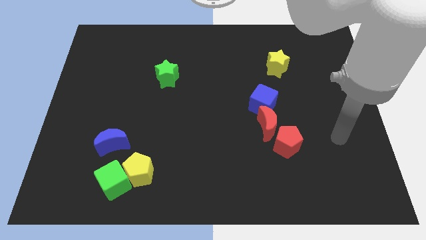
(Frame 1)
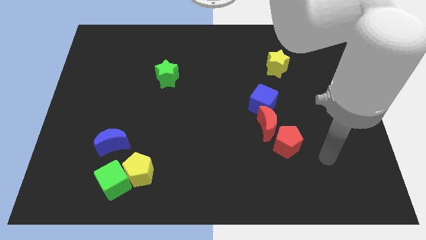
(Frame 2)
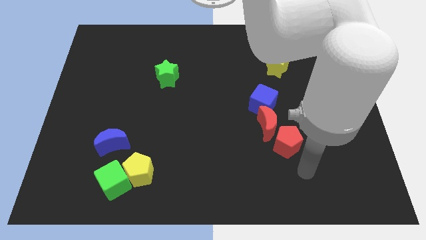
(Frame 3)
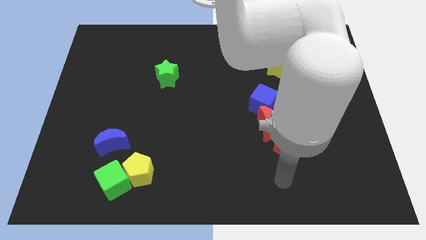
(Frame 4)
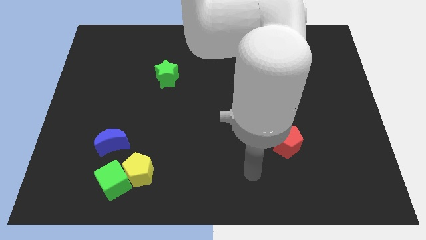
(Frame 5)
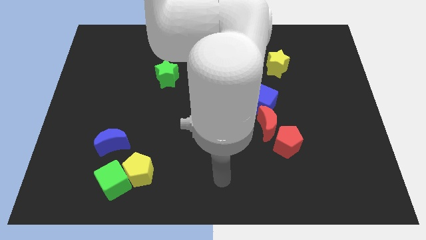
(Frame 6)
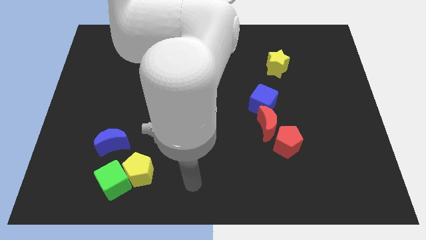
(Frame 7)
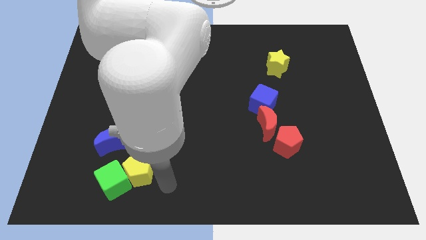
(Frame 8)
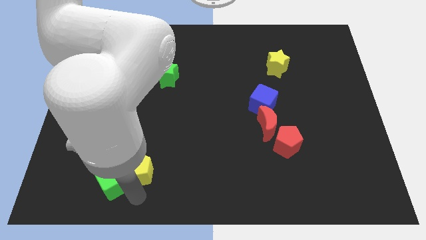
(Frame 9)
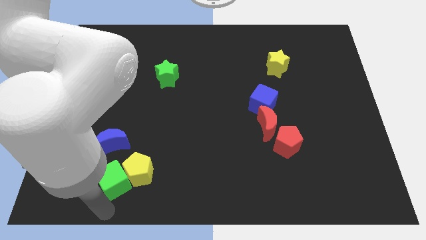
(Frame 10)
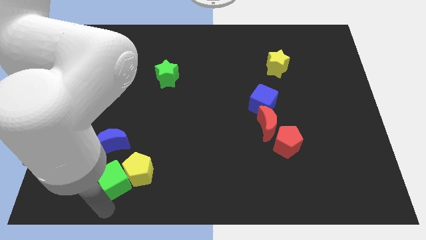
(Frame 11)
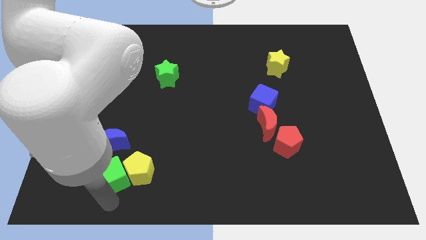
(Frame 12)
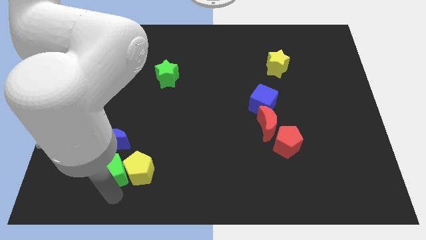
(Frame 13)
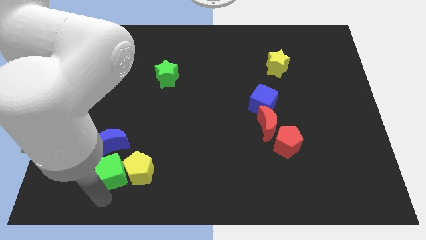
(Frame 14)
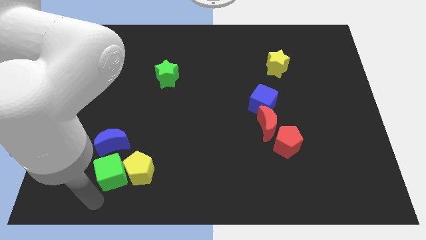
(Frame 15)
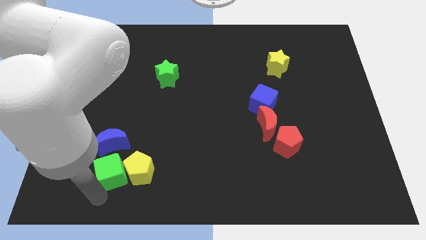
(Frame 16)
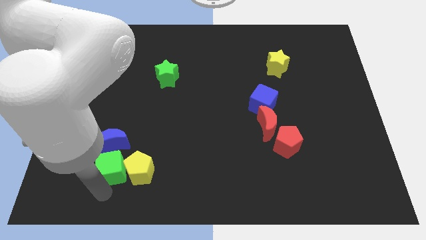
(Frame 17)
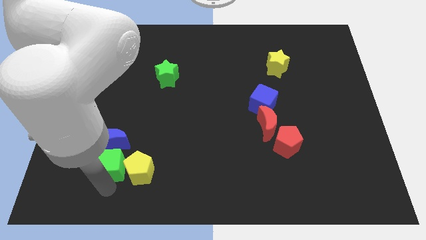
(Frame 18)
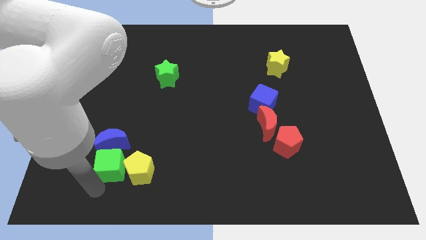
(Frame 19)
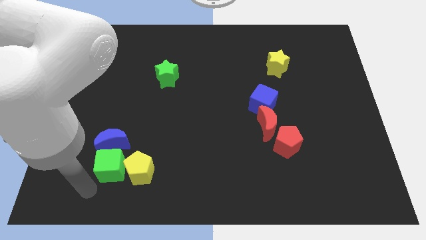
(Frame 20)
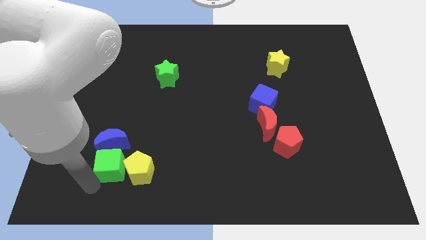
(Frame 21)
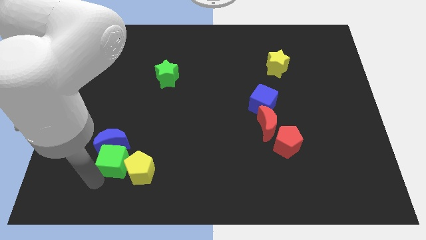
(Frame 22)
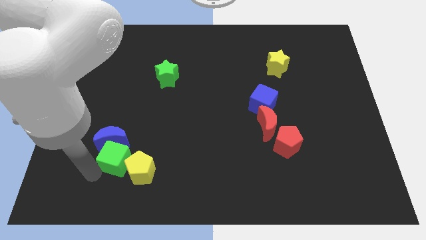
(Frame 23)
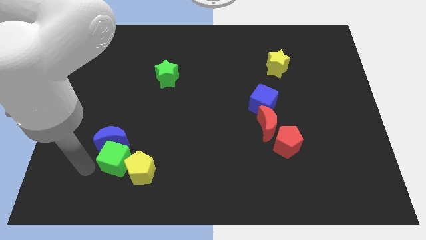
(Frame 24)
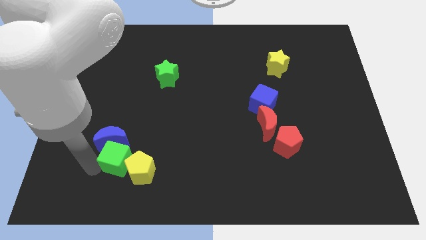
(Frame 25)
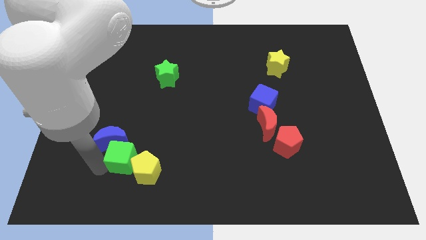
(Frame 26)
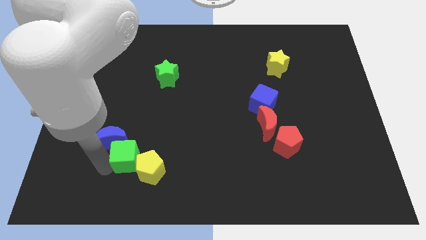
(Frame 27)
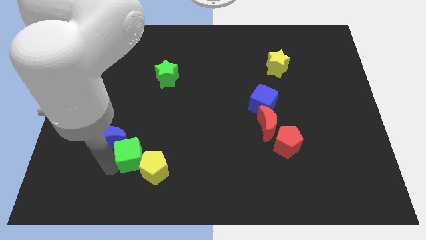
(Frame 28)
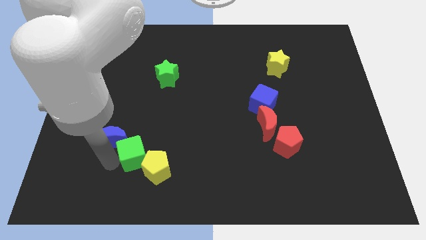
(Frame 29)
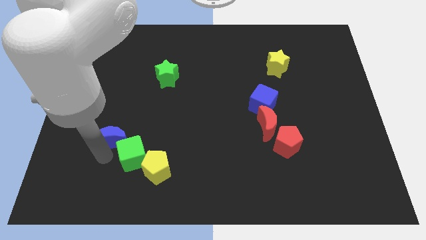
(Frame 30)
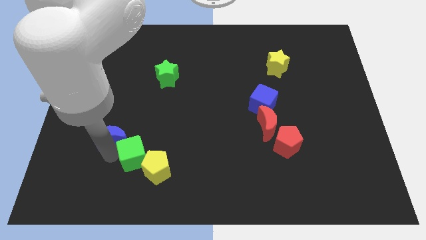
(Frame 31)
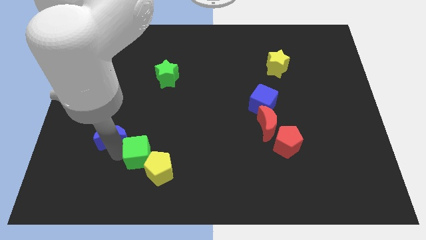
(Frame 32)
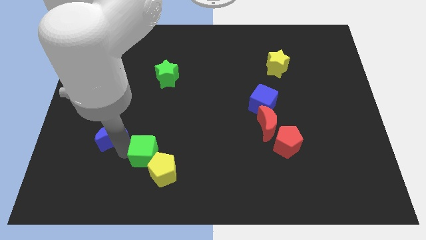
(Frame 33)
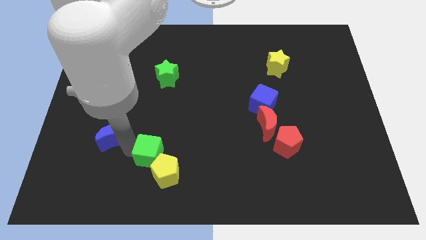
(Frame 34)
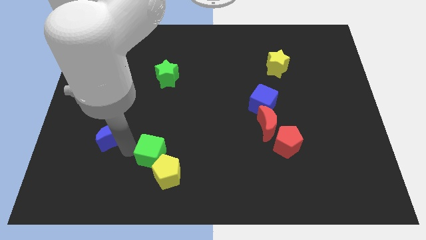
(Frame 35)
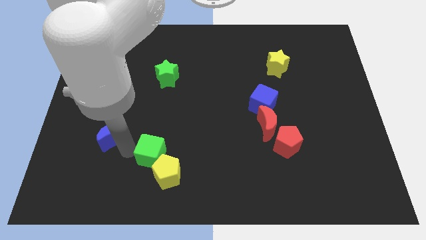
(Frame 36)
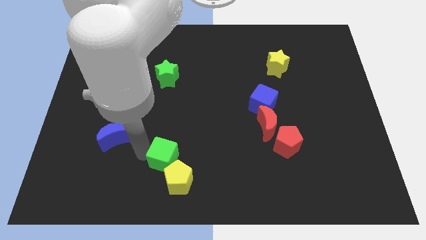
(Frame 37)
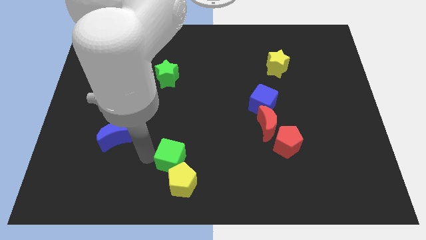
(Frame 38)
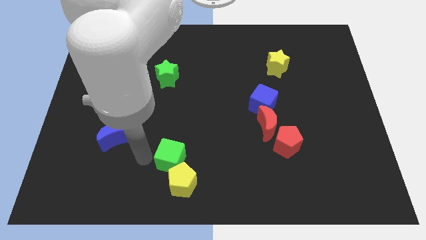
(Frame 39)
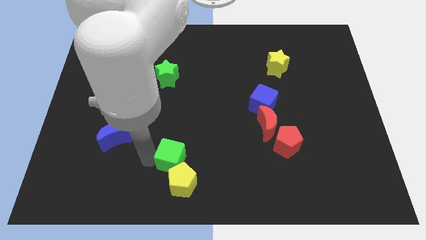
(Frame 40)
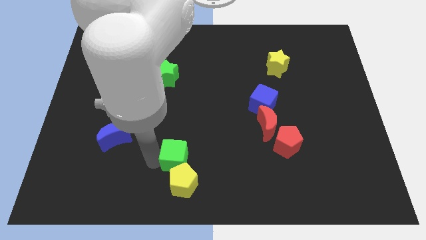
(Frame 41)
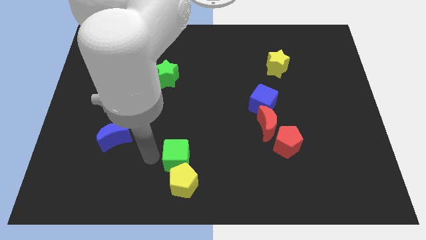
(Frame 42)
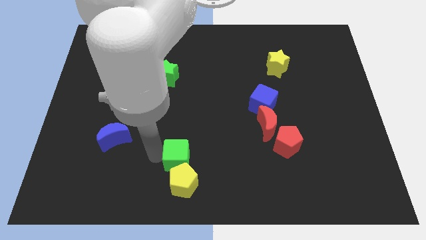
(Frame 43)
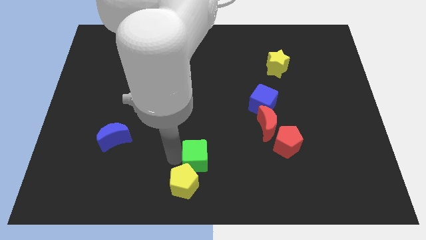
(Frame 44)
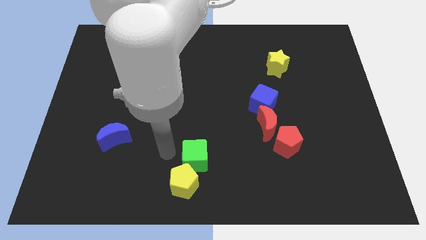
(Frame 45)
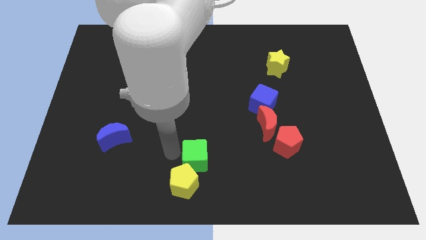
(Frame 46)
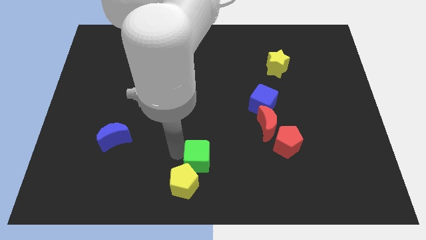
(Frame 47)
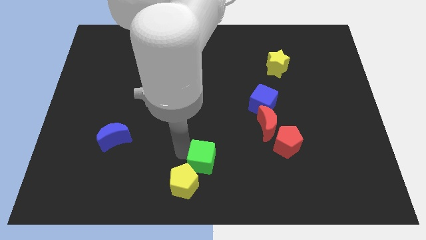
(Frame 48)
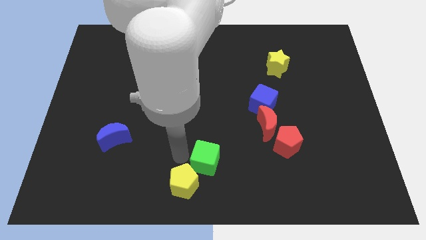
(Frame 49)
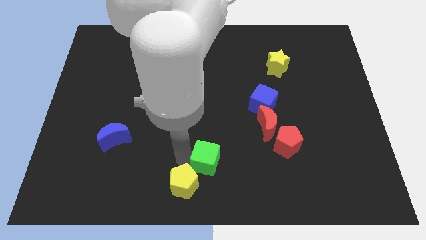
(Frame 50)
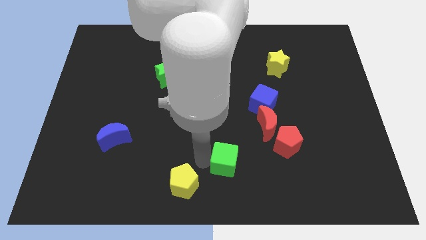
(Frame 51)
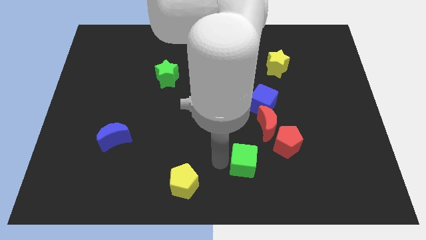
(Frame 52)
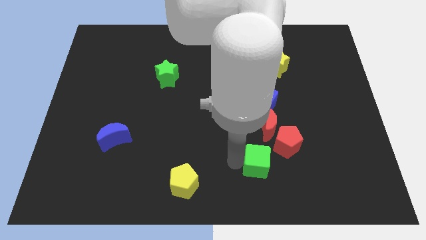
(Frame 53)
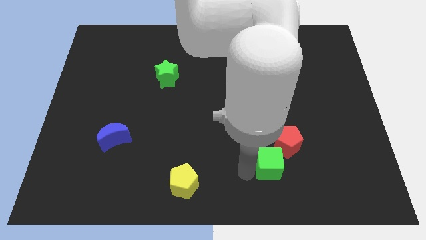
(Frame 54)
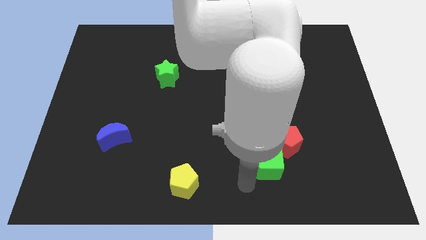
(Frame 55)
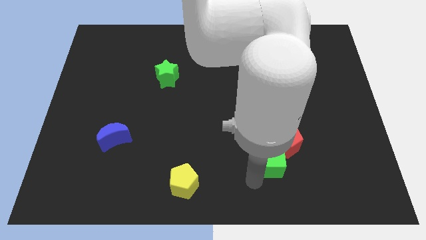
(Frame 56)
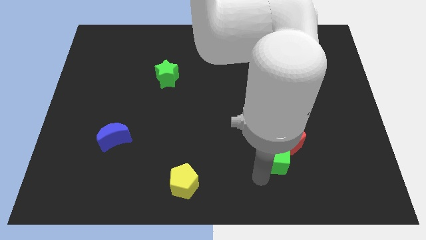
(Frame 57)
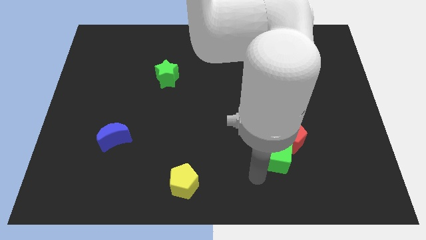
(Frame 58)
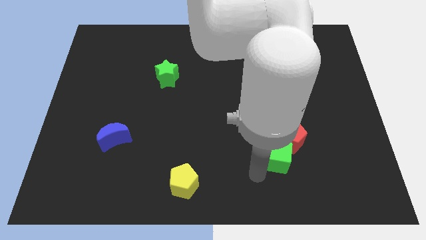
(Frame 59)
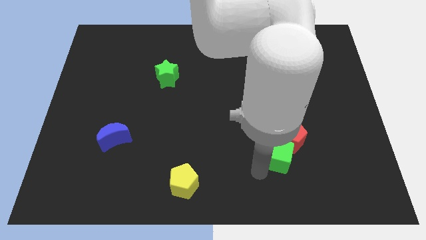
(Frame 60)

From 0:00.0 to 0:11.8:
put the green cube to the bottom right side of the red moon
